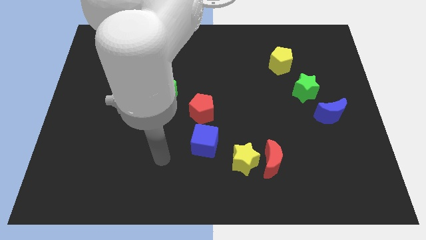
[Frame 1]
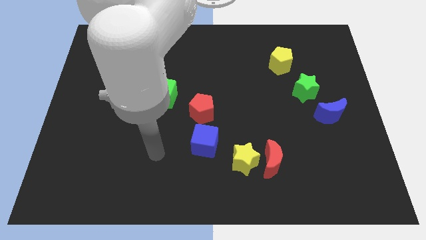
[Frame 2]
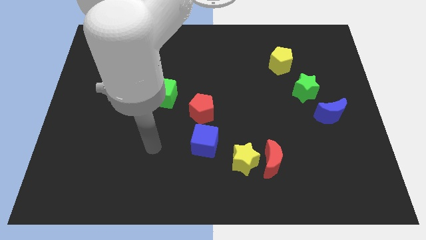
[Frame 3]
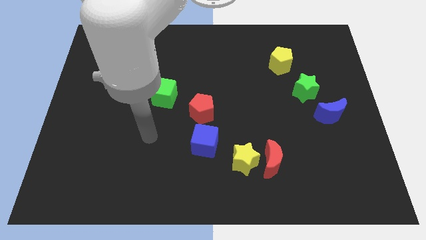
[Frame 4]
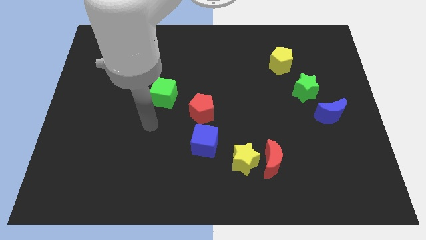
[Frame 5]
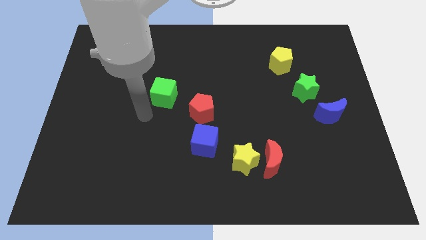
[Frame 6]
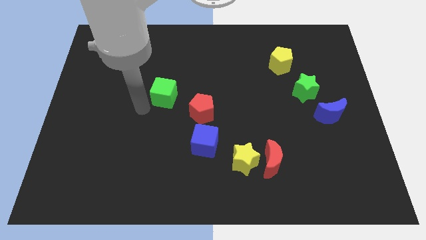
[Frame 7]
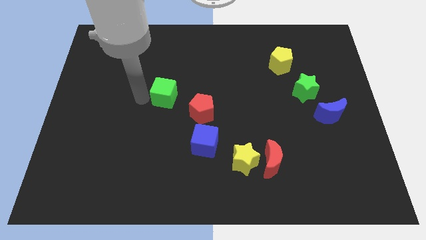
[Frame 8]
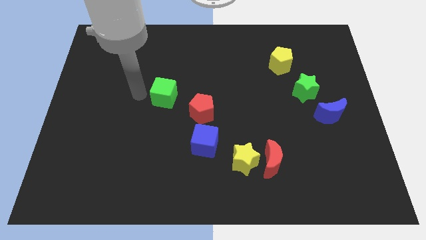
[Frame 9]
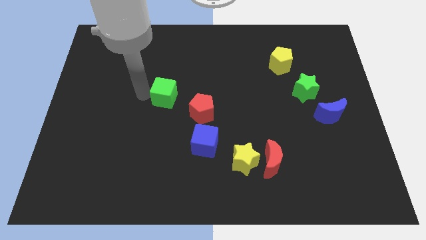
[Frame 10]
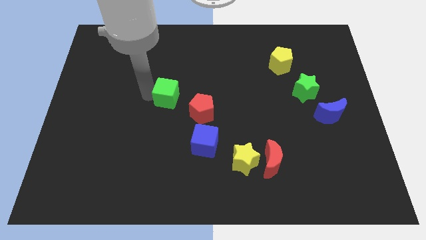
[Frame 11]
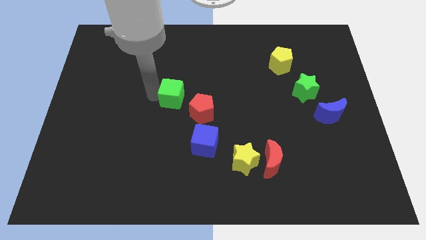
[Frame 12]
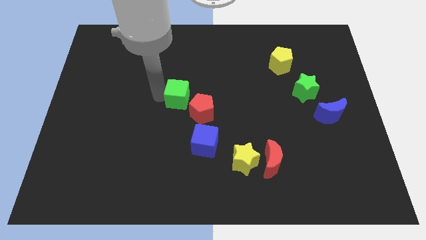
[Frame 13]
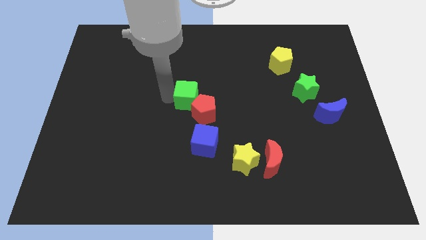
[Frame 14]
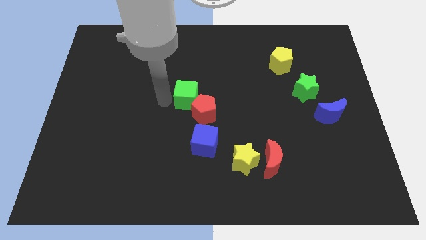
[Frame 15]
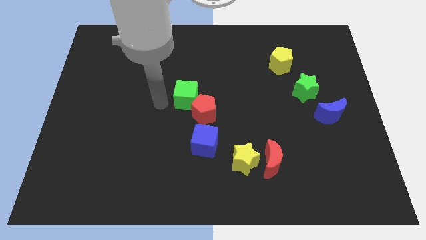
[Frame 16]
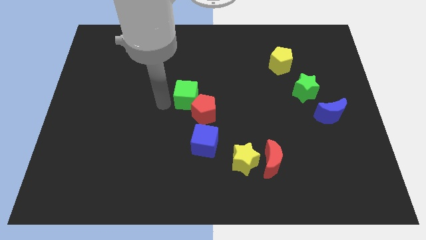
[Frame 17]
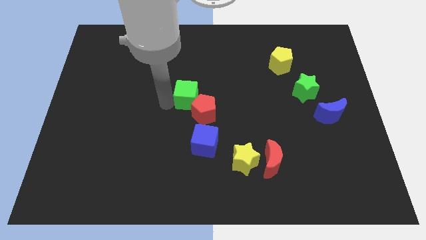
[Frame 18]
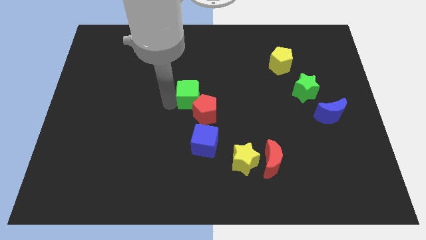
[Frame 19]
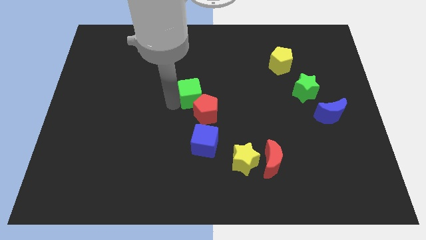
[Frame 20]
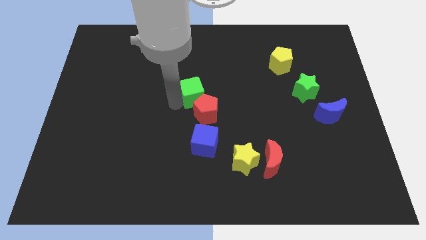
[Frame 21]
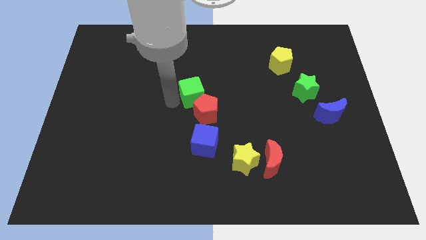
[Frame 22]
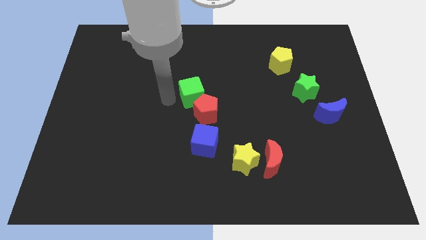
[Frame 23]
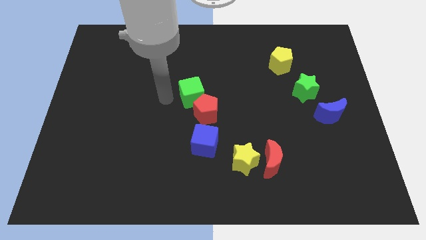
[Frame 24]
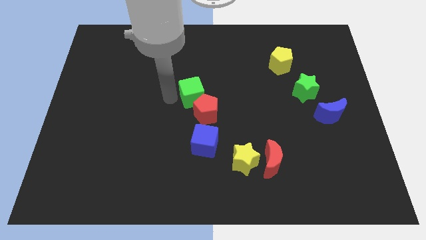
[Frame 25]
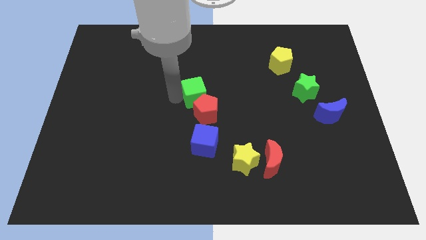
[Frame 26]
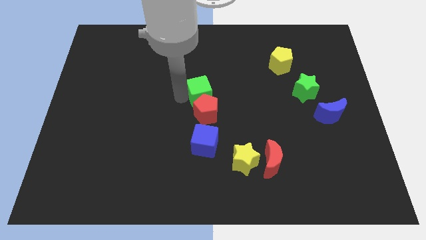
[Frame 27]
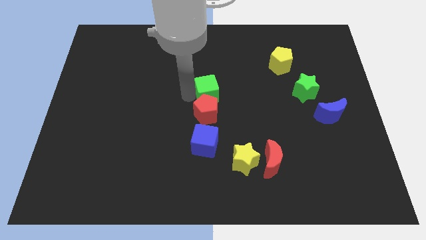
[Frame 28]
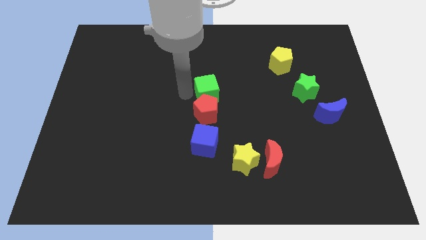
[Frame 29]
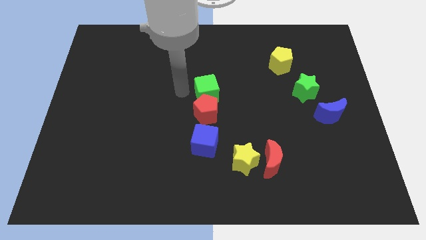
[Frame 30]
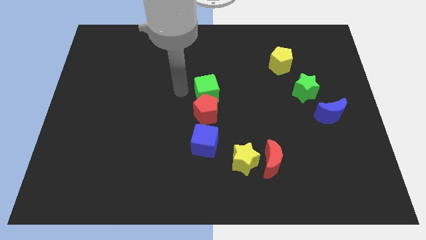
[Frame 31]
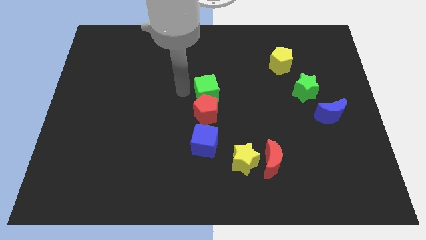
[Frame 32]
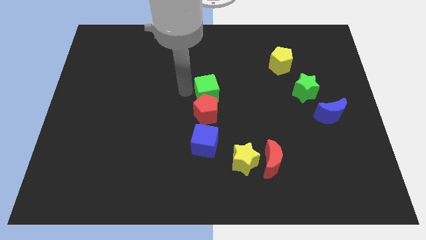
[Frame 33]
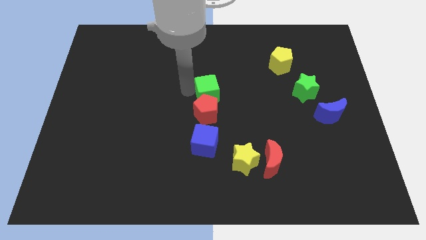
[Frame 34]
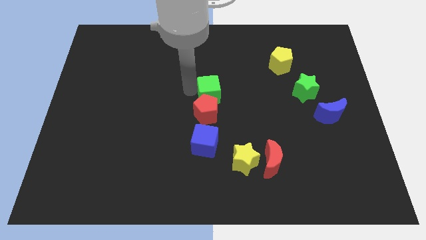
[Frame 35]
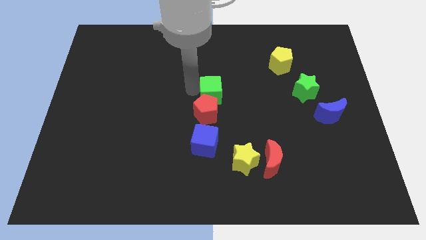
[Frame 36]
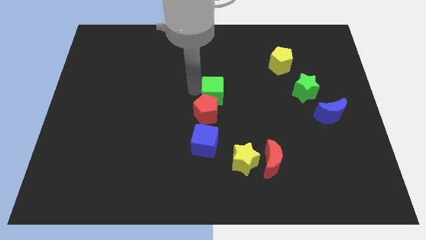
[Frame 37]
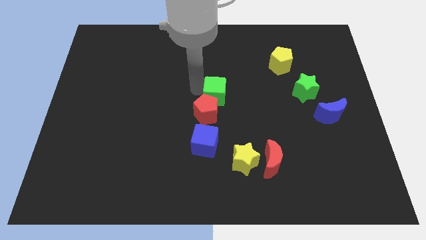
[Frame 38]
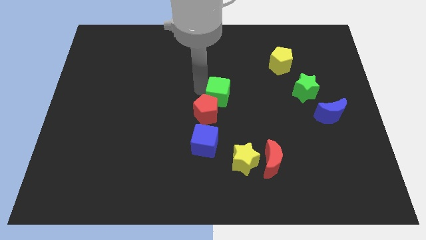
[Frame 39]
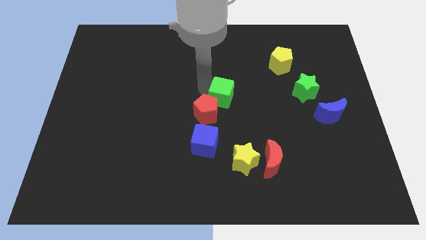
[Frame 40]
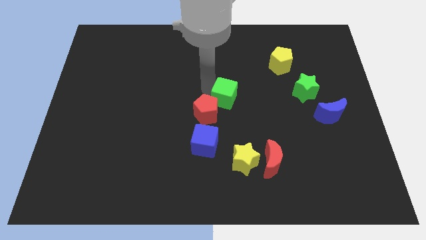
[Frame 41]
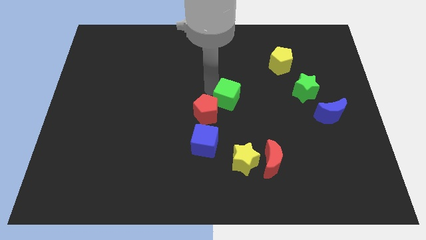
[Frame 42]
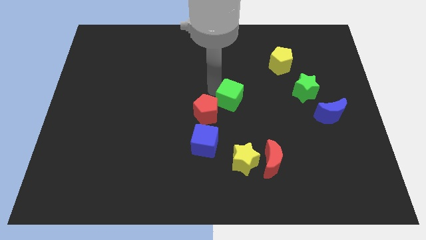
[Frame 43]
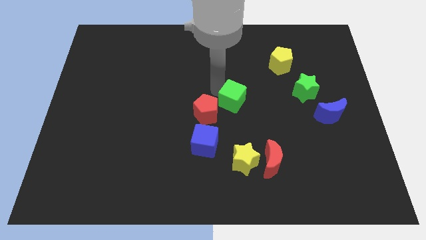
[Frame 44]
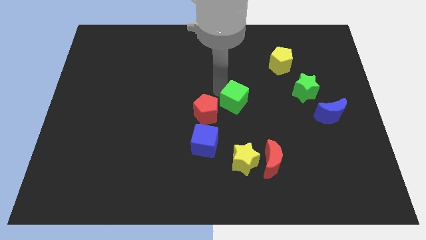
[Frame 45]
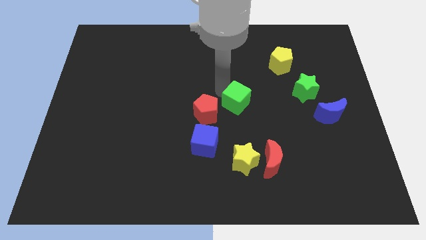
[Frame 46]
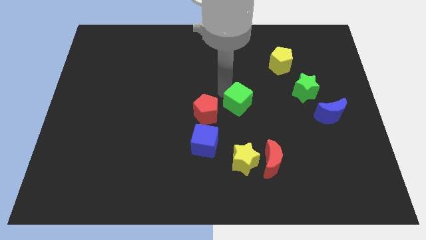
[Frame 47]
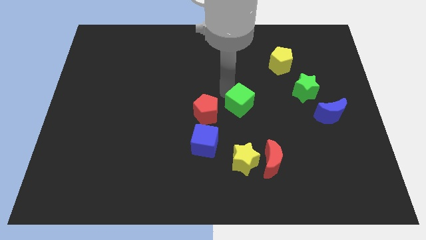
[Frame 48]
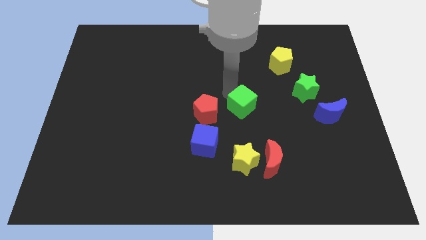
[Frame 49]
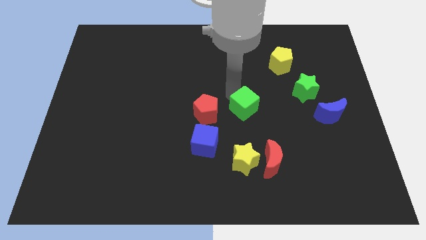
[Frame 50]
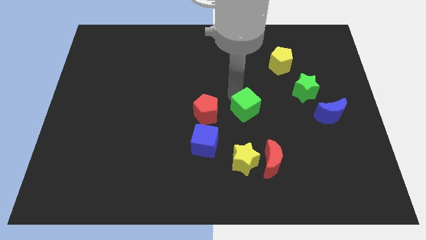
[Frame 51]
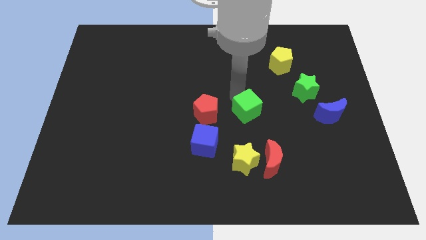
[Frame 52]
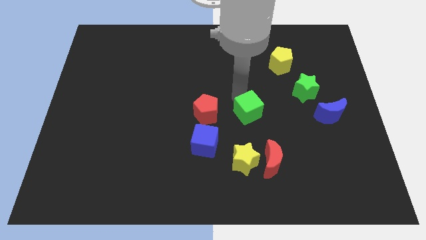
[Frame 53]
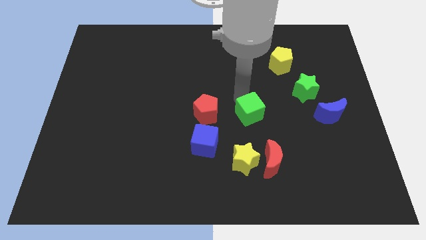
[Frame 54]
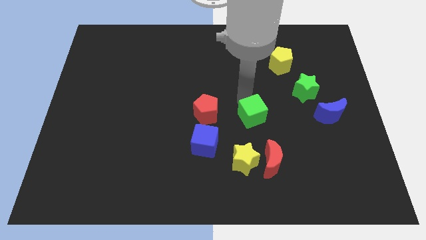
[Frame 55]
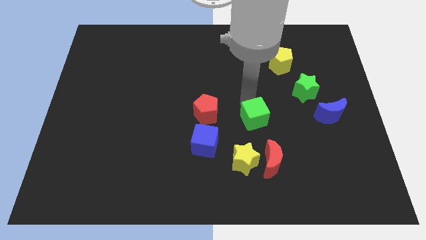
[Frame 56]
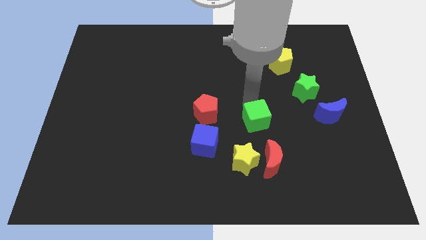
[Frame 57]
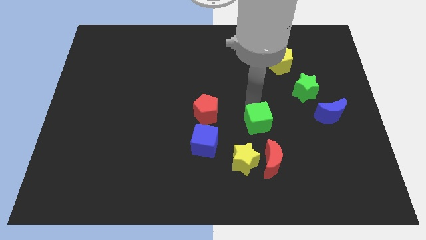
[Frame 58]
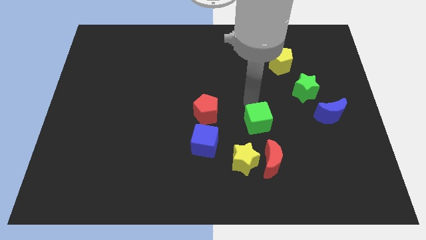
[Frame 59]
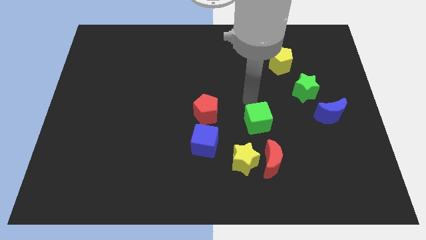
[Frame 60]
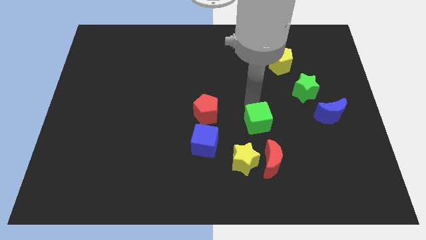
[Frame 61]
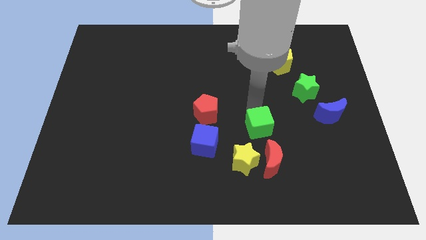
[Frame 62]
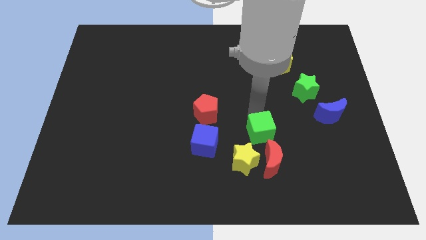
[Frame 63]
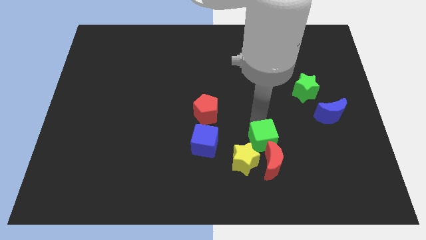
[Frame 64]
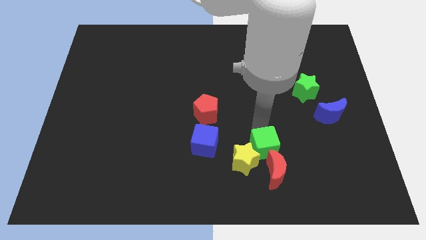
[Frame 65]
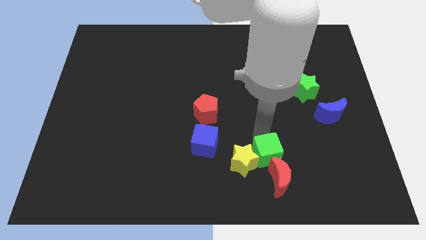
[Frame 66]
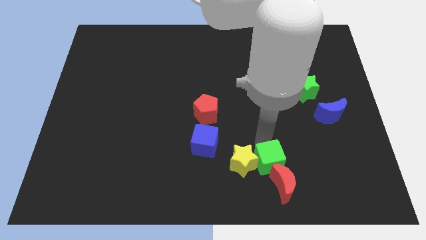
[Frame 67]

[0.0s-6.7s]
move the green cube next to the red moon

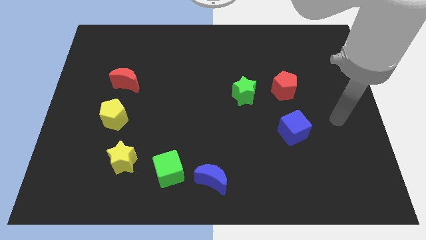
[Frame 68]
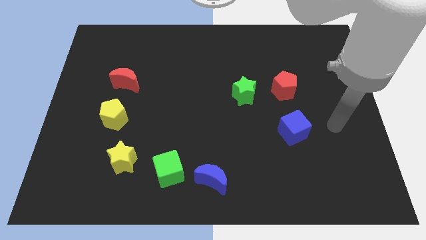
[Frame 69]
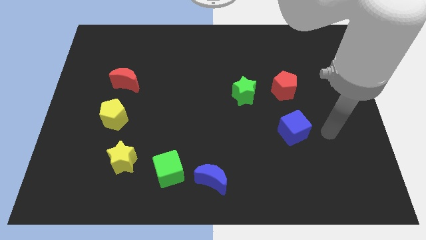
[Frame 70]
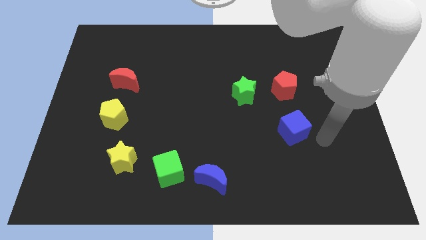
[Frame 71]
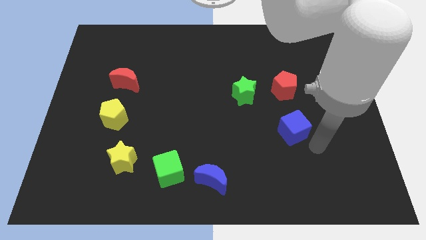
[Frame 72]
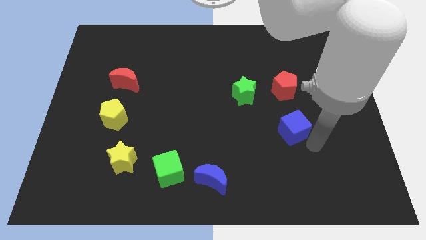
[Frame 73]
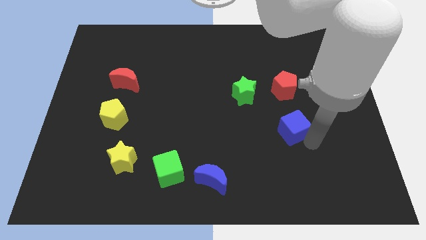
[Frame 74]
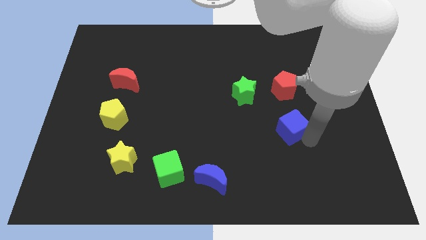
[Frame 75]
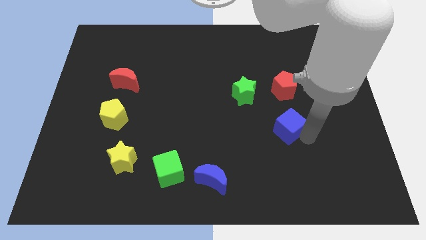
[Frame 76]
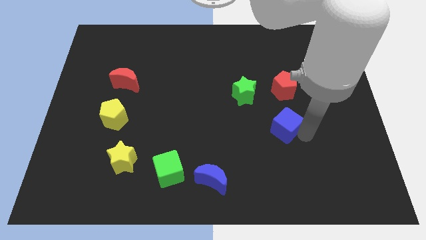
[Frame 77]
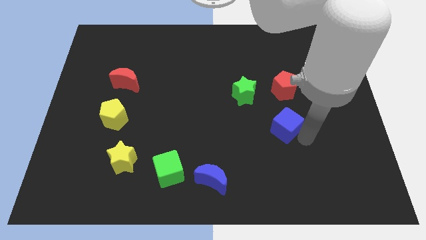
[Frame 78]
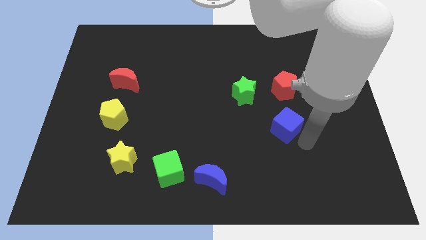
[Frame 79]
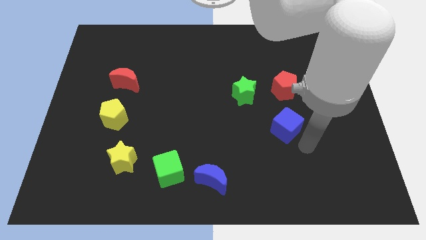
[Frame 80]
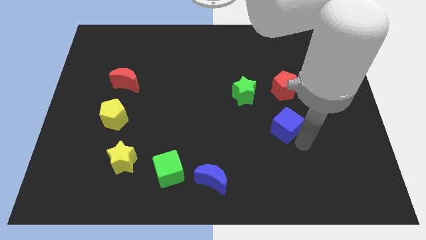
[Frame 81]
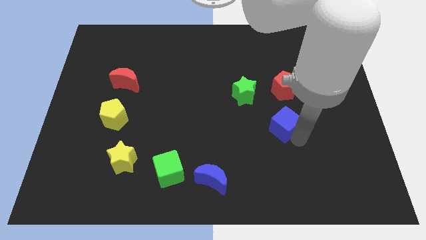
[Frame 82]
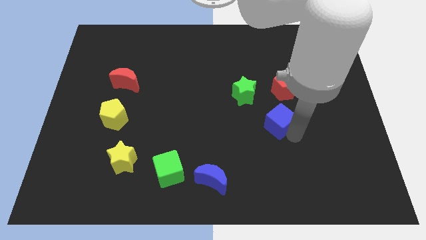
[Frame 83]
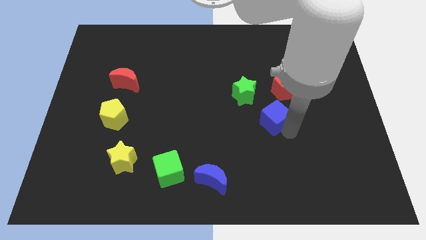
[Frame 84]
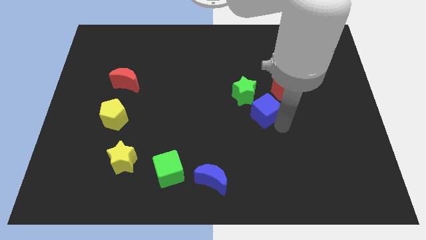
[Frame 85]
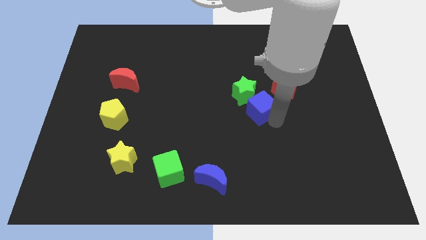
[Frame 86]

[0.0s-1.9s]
push the blue cube to the green star
